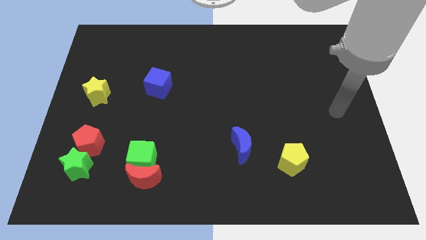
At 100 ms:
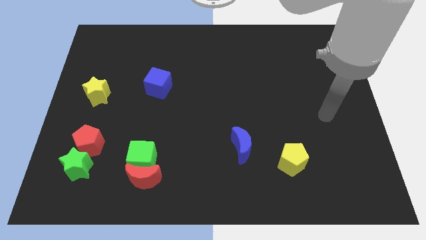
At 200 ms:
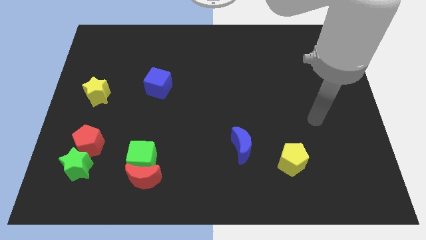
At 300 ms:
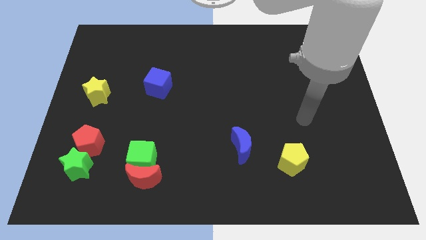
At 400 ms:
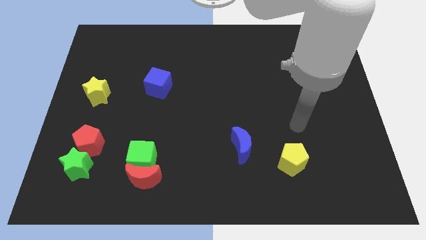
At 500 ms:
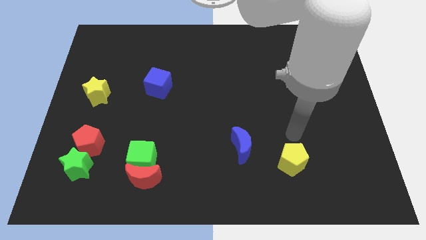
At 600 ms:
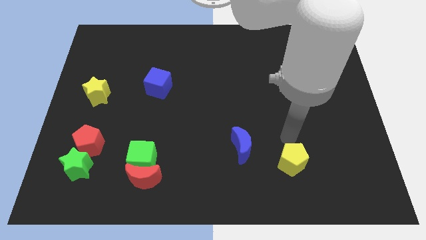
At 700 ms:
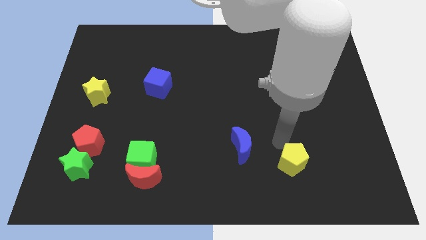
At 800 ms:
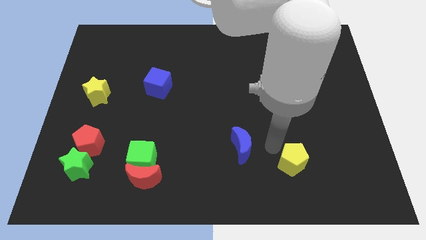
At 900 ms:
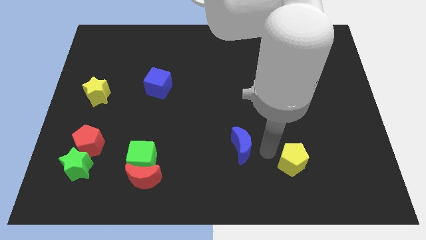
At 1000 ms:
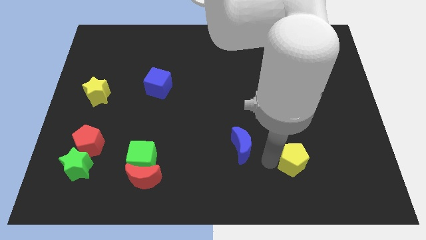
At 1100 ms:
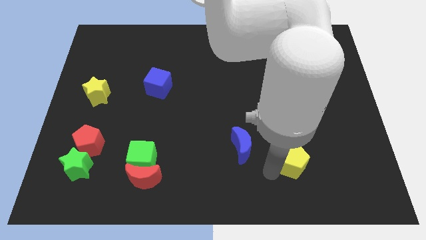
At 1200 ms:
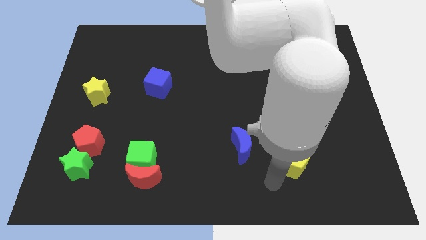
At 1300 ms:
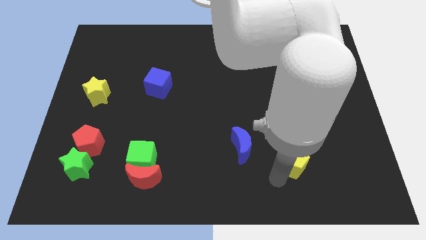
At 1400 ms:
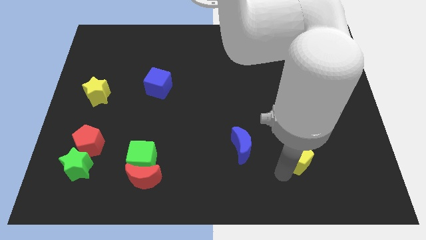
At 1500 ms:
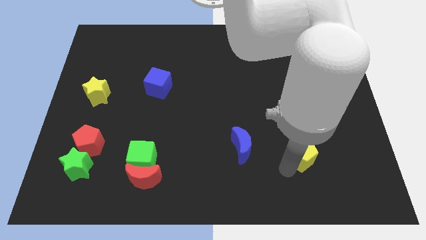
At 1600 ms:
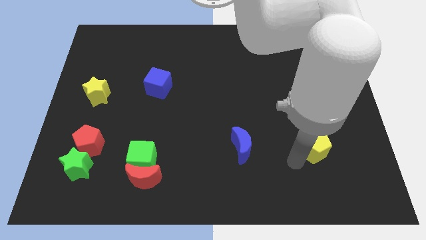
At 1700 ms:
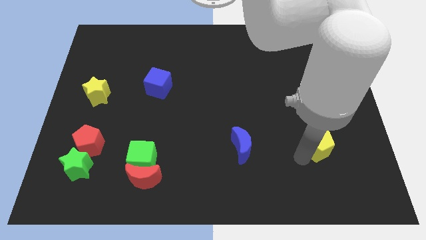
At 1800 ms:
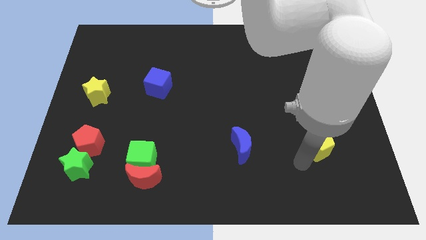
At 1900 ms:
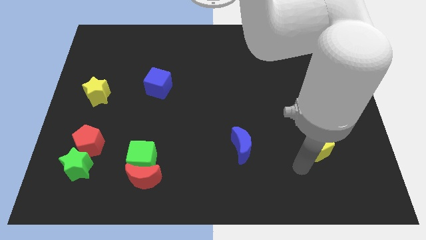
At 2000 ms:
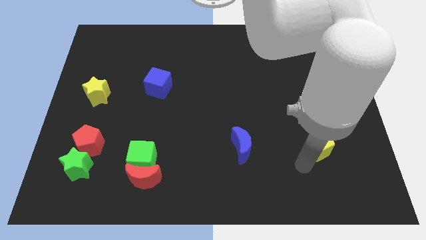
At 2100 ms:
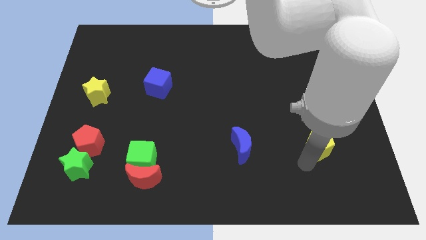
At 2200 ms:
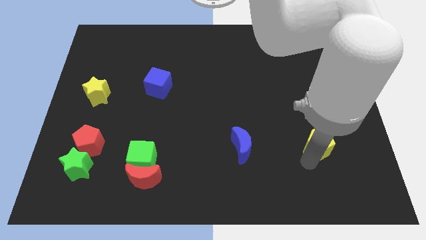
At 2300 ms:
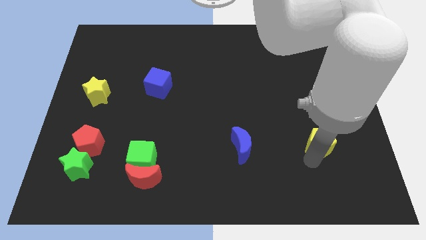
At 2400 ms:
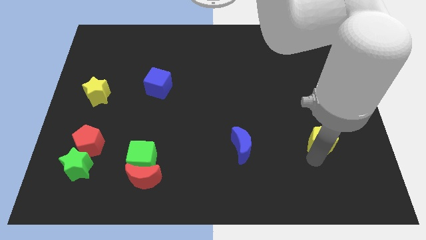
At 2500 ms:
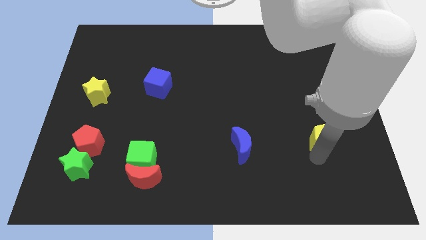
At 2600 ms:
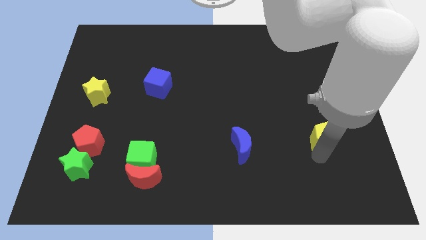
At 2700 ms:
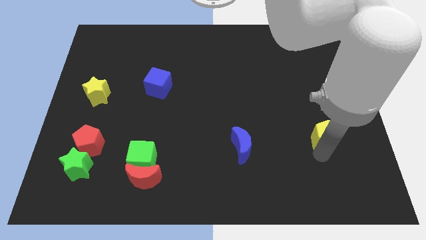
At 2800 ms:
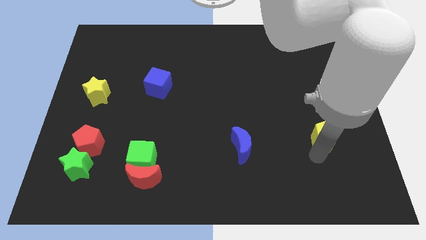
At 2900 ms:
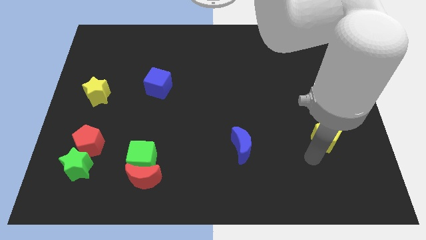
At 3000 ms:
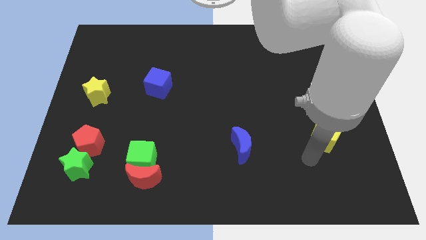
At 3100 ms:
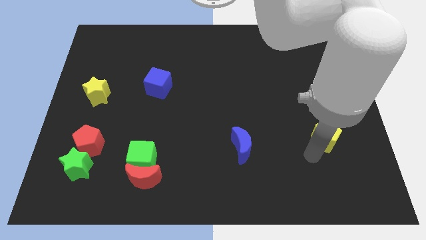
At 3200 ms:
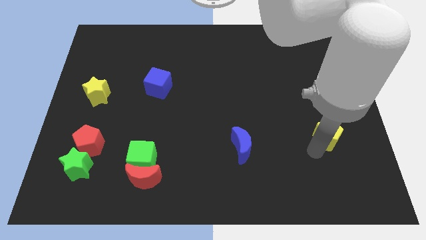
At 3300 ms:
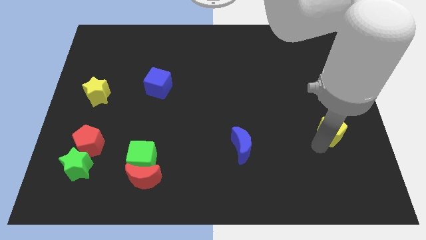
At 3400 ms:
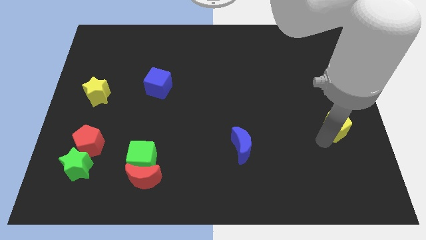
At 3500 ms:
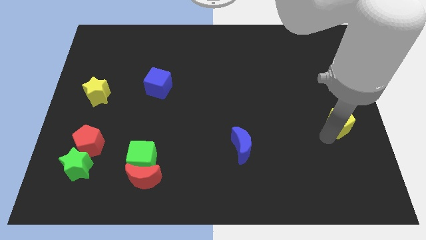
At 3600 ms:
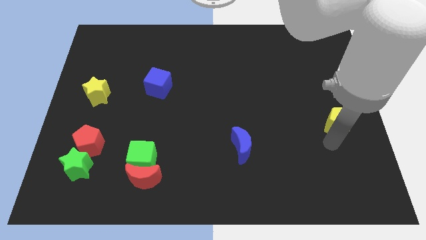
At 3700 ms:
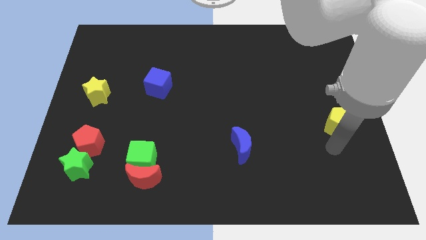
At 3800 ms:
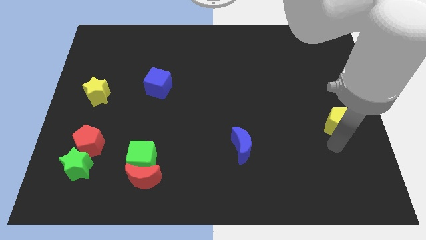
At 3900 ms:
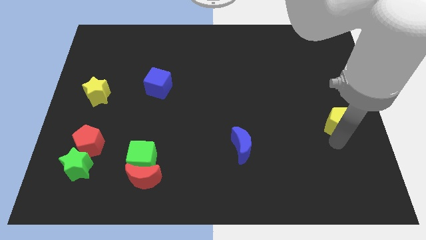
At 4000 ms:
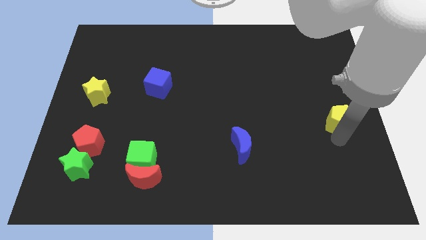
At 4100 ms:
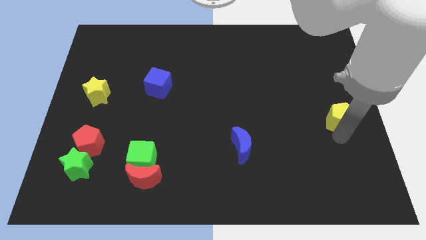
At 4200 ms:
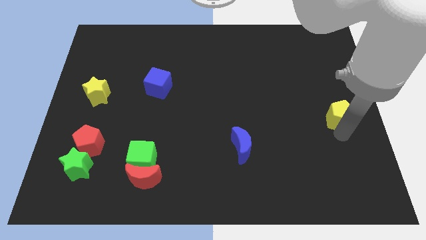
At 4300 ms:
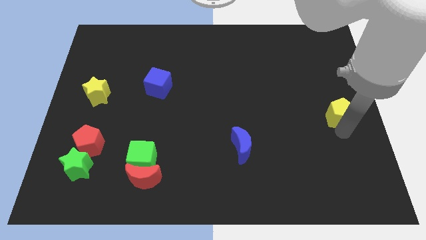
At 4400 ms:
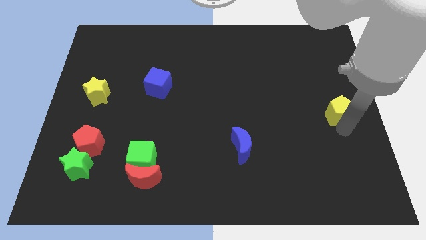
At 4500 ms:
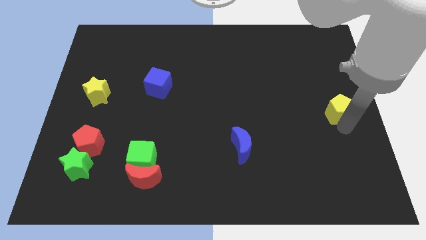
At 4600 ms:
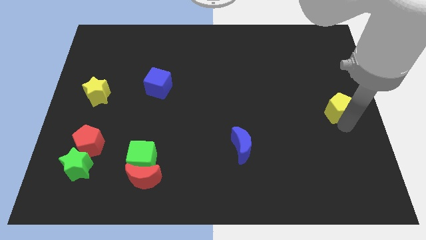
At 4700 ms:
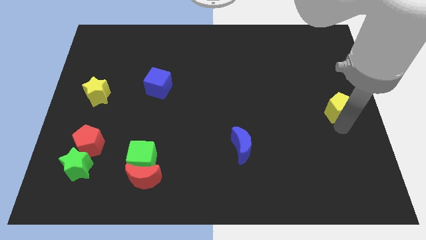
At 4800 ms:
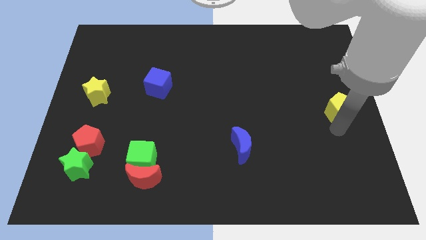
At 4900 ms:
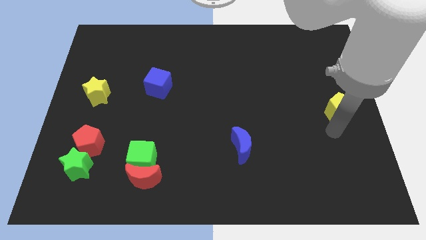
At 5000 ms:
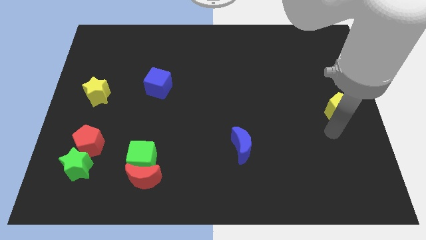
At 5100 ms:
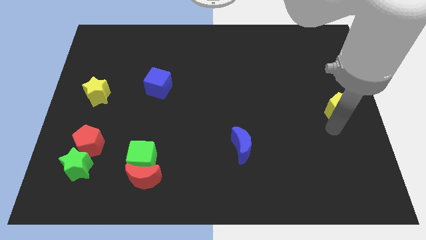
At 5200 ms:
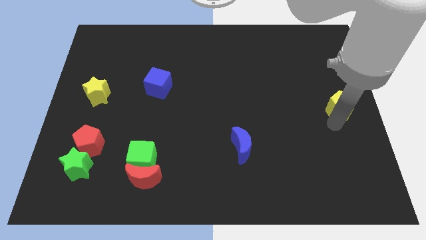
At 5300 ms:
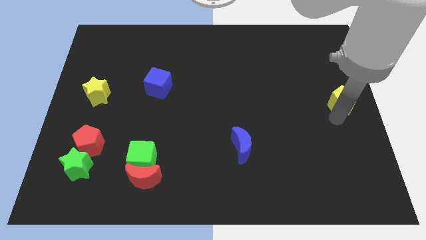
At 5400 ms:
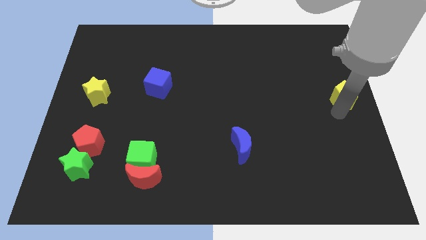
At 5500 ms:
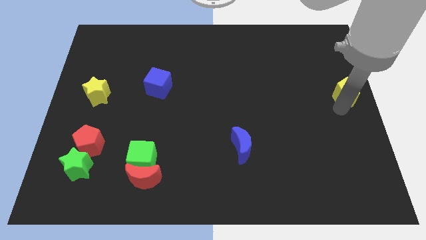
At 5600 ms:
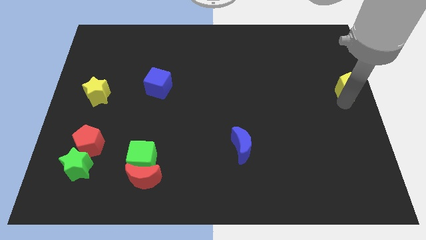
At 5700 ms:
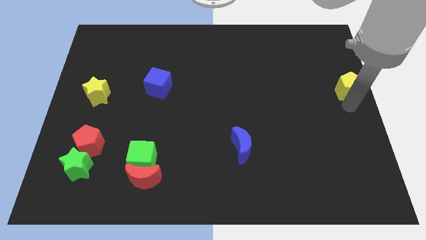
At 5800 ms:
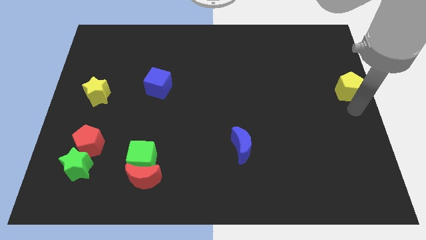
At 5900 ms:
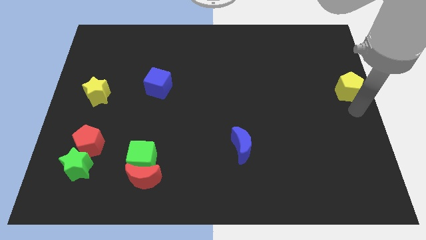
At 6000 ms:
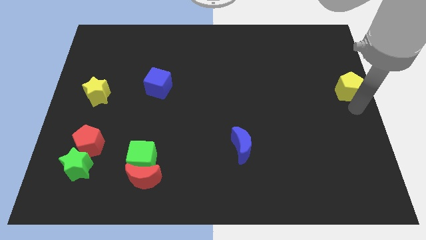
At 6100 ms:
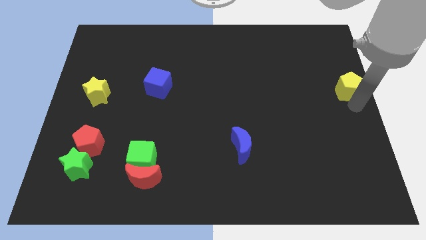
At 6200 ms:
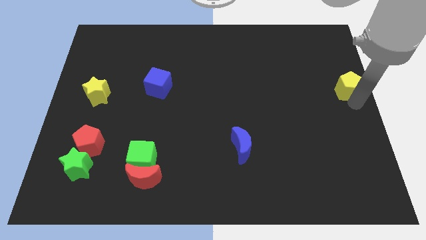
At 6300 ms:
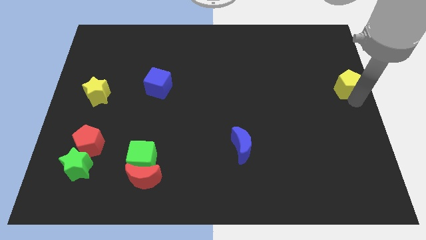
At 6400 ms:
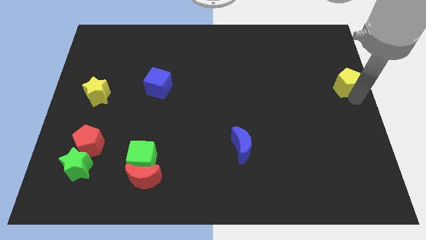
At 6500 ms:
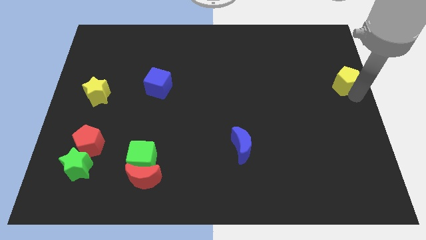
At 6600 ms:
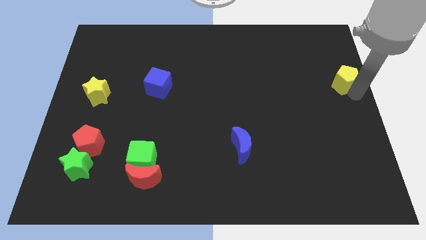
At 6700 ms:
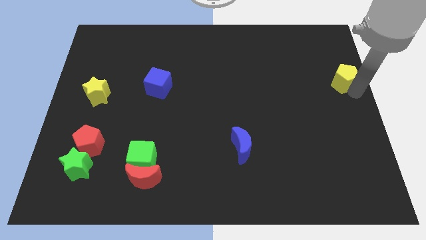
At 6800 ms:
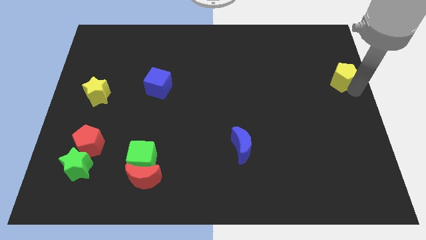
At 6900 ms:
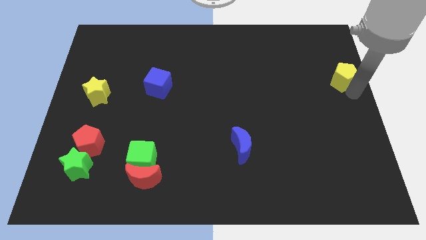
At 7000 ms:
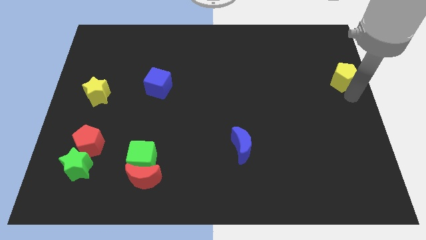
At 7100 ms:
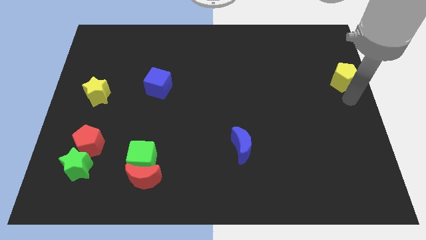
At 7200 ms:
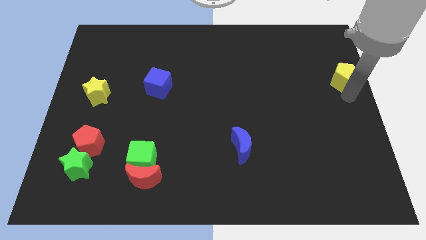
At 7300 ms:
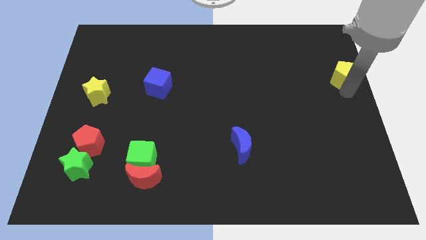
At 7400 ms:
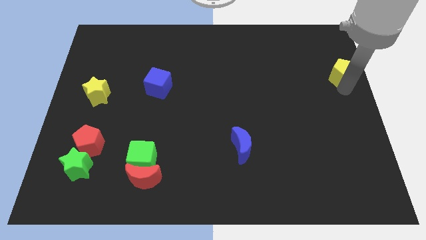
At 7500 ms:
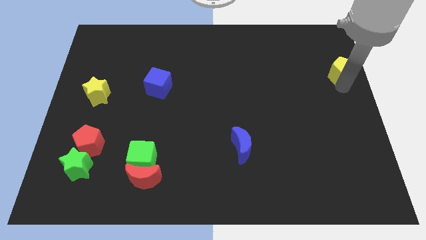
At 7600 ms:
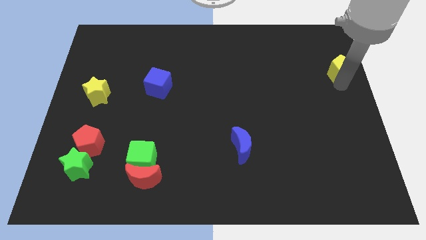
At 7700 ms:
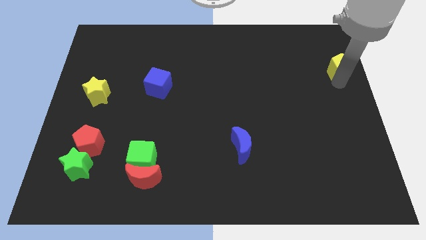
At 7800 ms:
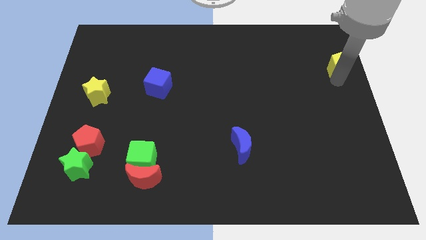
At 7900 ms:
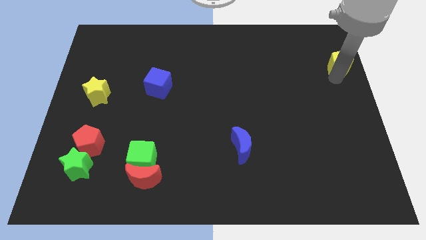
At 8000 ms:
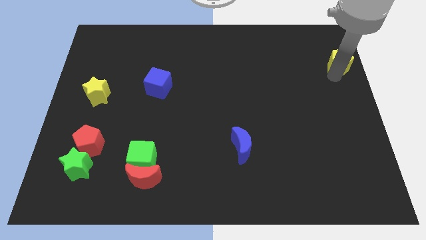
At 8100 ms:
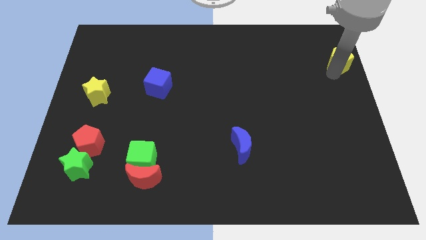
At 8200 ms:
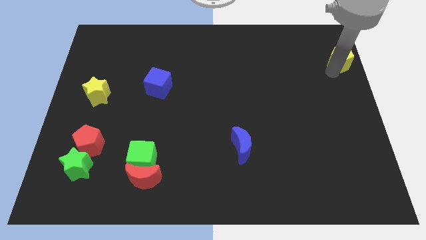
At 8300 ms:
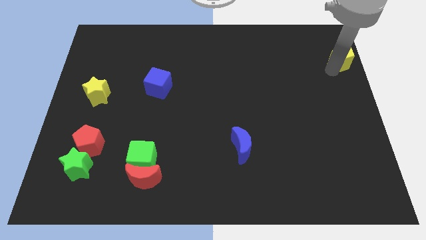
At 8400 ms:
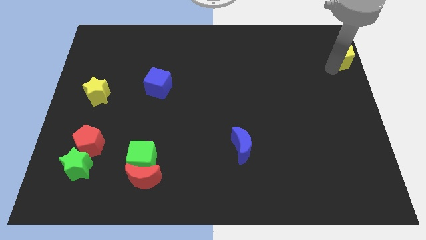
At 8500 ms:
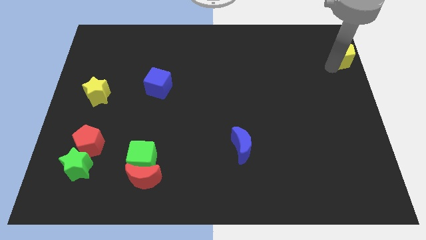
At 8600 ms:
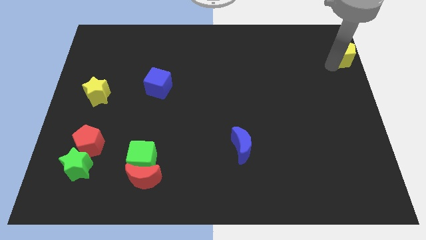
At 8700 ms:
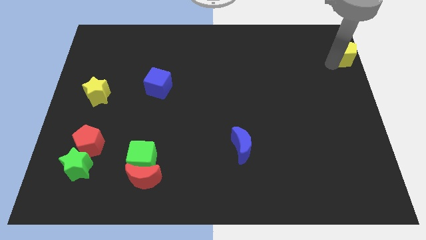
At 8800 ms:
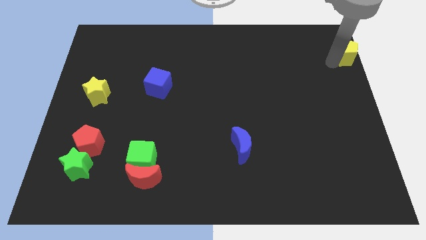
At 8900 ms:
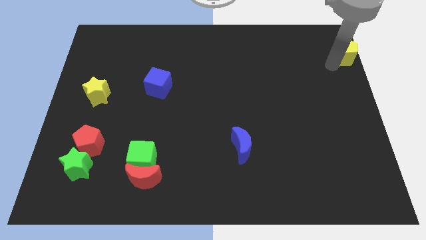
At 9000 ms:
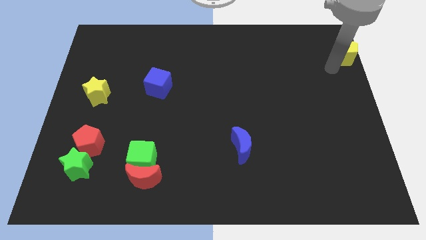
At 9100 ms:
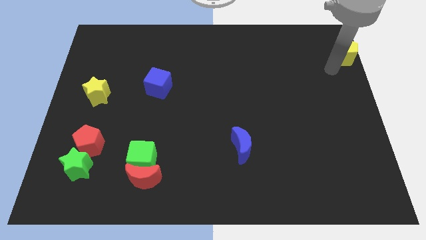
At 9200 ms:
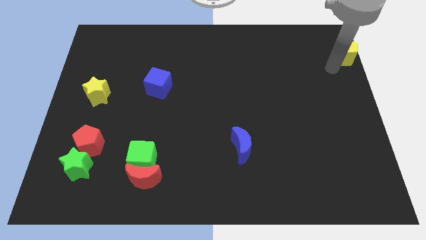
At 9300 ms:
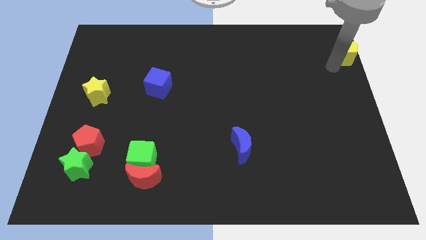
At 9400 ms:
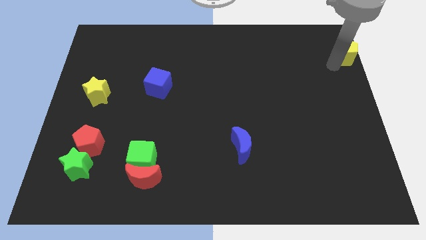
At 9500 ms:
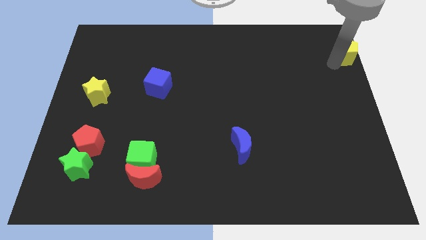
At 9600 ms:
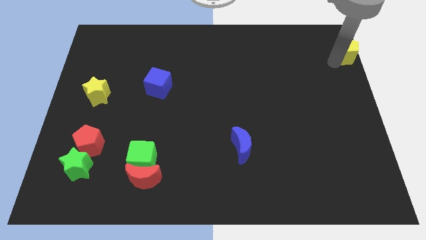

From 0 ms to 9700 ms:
push the yellow pentagon to the top right of the board
